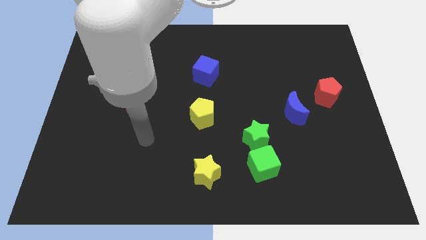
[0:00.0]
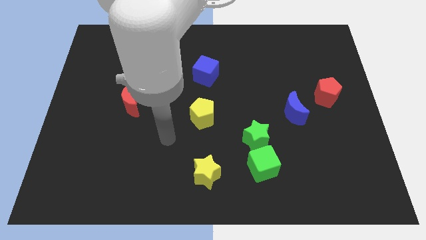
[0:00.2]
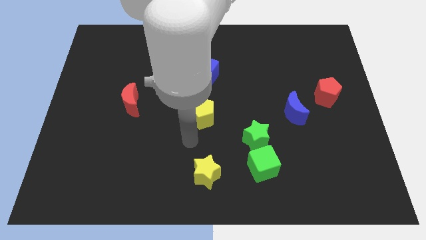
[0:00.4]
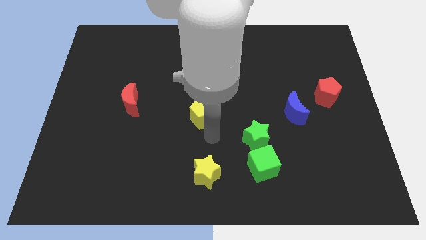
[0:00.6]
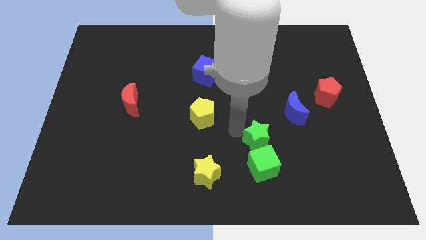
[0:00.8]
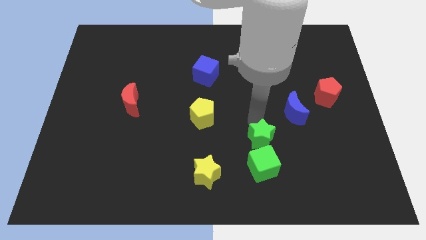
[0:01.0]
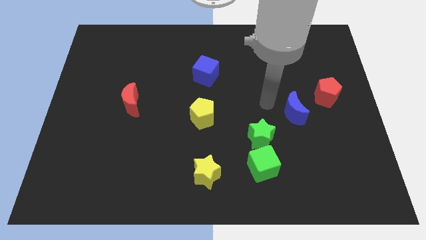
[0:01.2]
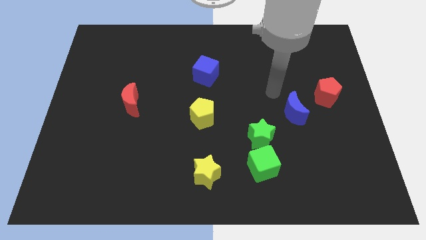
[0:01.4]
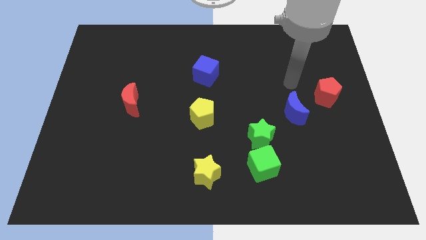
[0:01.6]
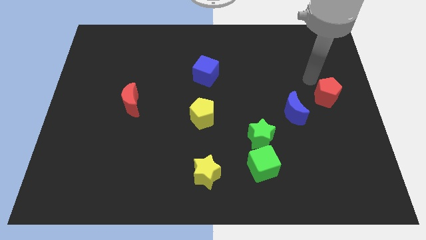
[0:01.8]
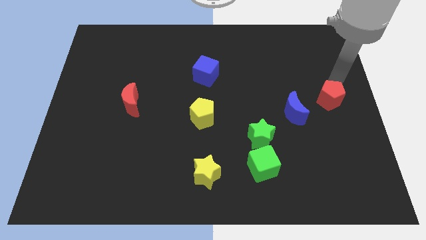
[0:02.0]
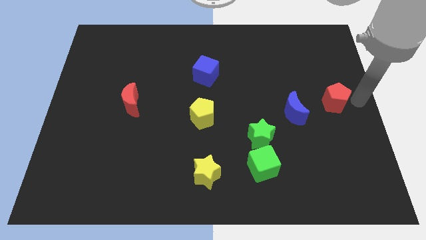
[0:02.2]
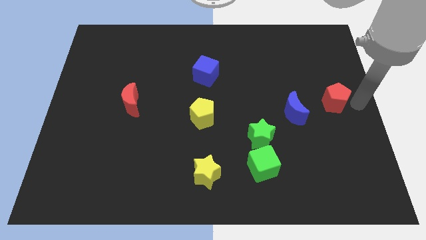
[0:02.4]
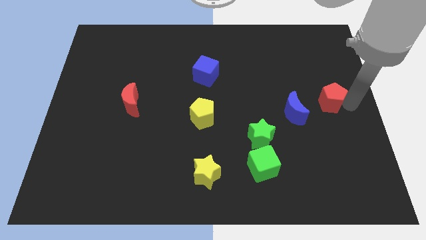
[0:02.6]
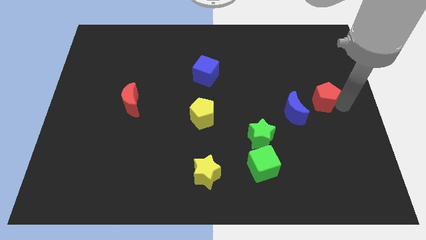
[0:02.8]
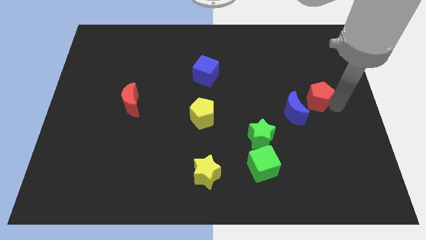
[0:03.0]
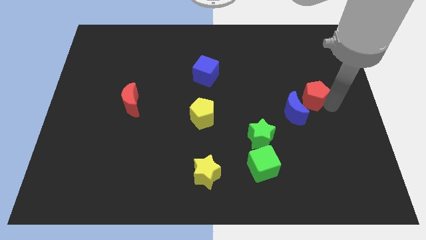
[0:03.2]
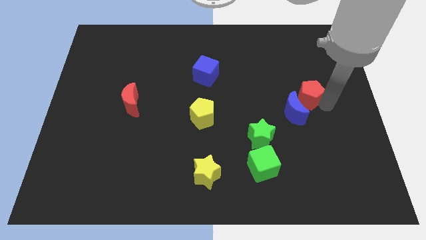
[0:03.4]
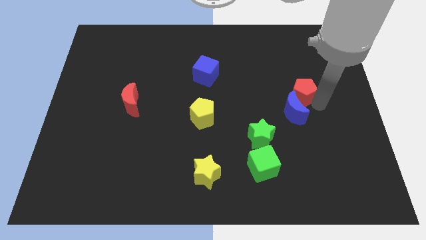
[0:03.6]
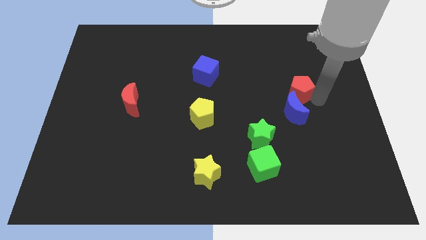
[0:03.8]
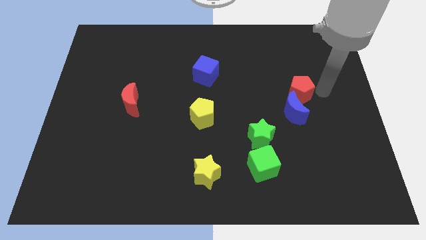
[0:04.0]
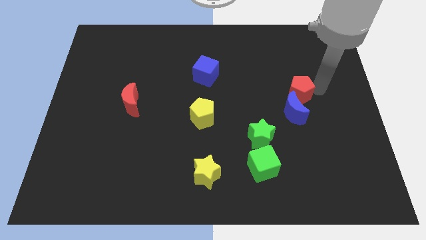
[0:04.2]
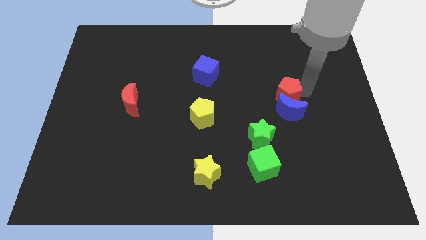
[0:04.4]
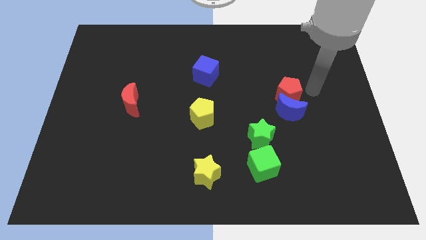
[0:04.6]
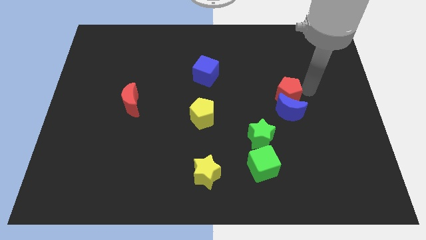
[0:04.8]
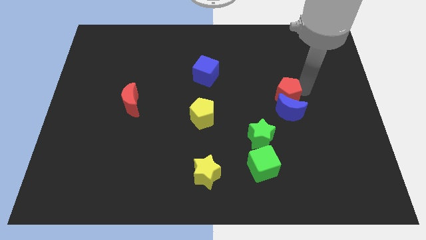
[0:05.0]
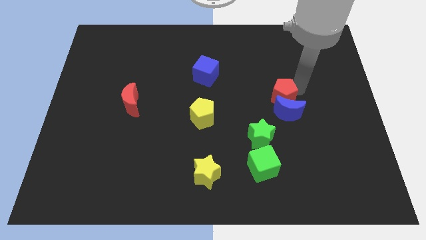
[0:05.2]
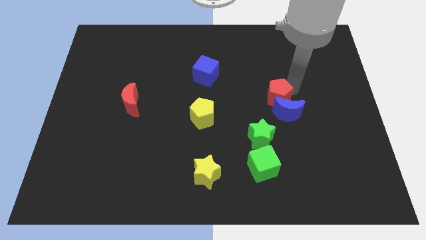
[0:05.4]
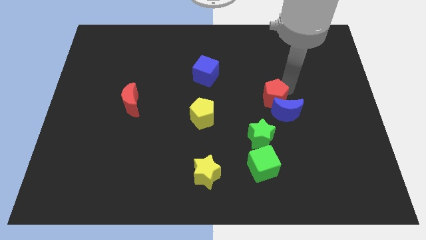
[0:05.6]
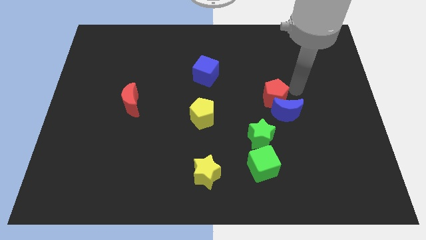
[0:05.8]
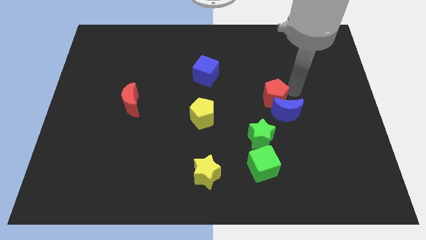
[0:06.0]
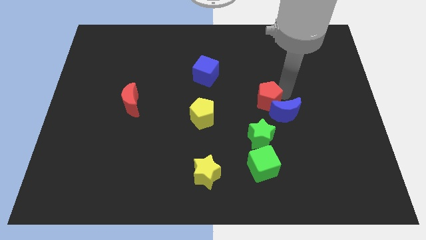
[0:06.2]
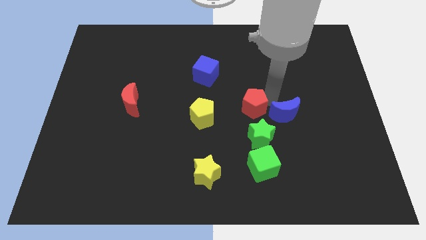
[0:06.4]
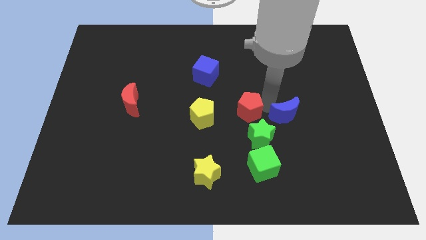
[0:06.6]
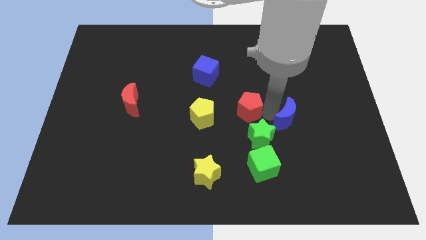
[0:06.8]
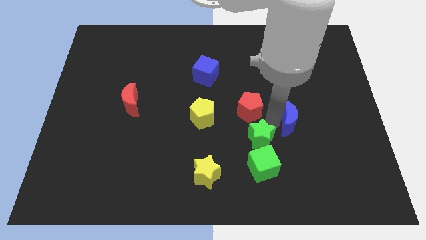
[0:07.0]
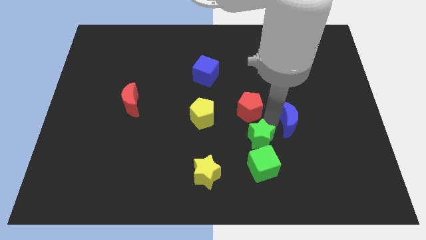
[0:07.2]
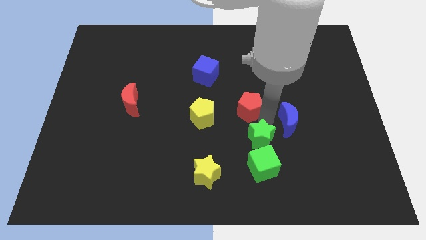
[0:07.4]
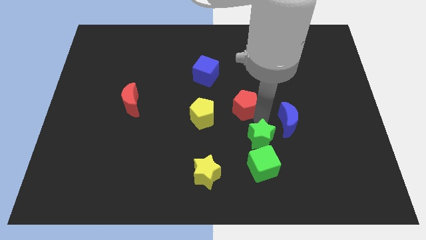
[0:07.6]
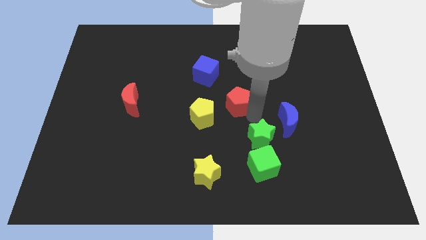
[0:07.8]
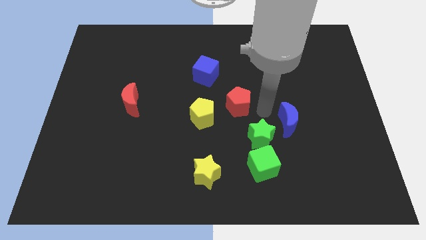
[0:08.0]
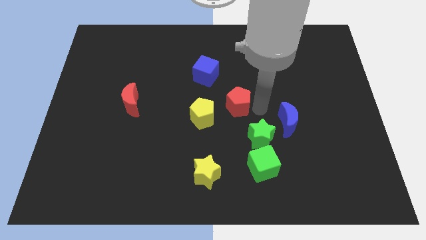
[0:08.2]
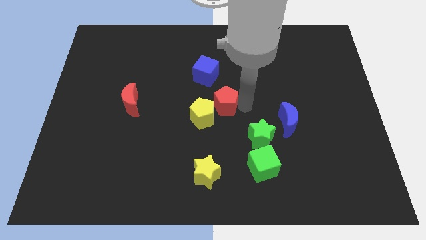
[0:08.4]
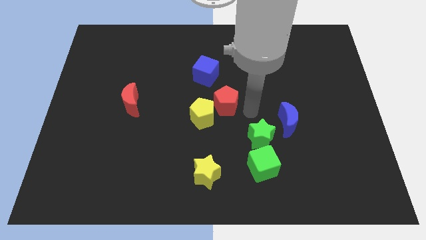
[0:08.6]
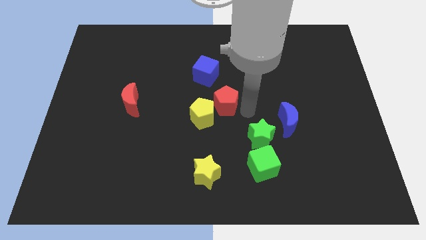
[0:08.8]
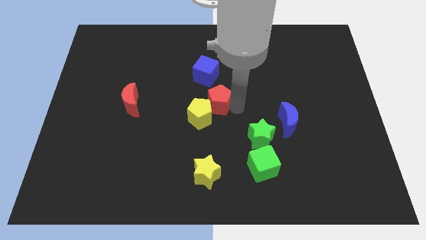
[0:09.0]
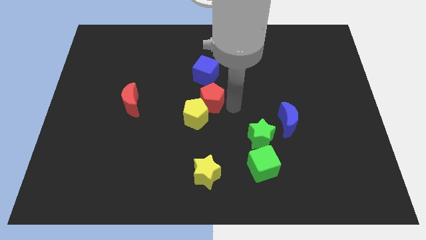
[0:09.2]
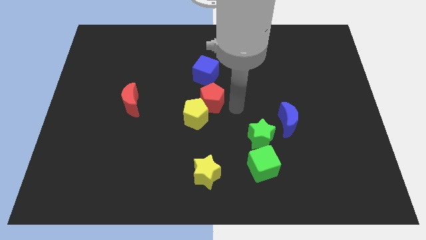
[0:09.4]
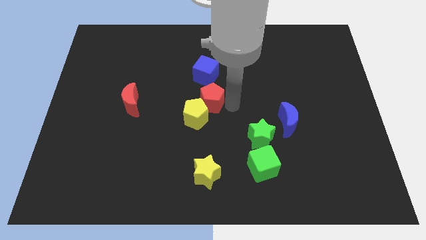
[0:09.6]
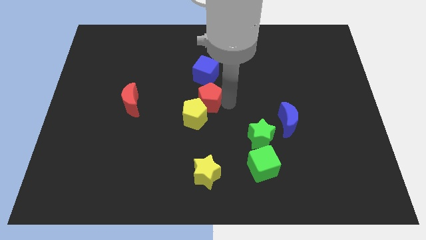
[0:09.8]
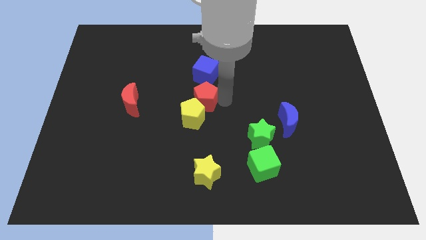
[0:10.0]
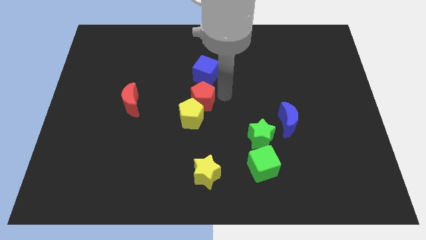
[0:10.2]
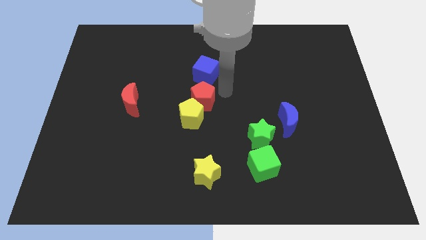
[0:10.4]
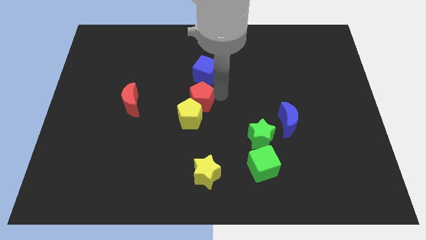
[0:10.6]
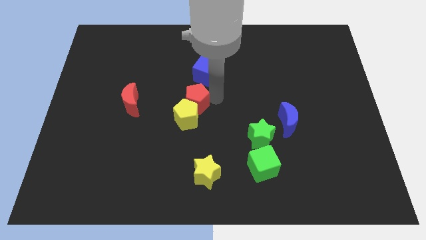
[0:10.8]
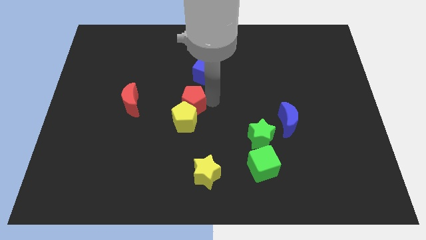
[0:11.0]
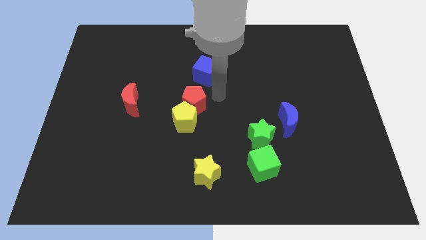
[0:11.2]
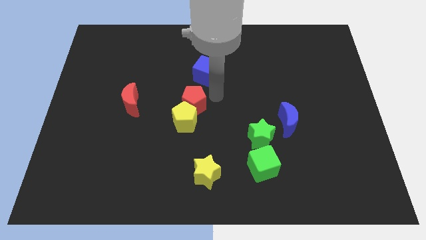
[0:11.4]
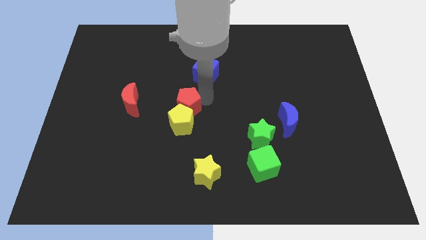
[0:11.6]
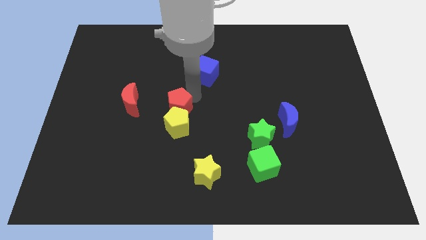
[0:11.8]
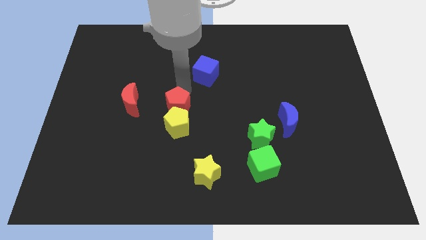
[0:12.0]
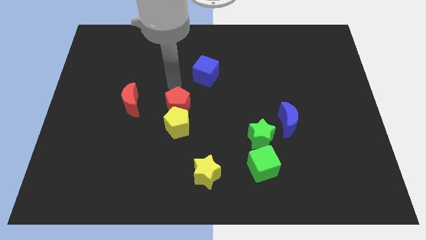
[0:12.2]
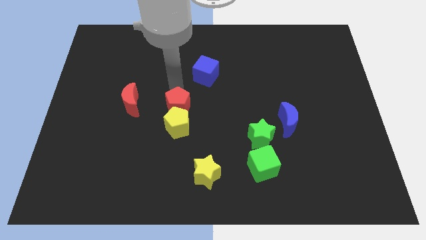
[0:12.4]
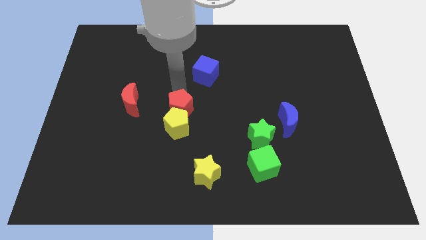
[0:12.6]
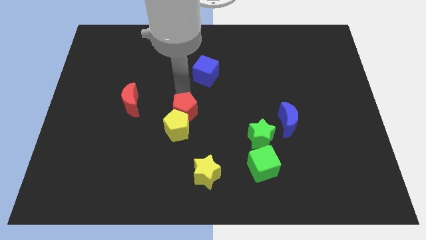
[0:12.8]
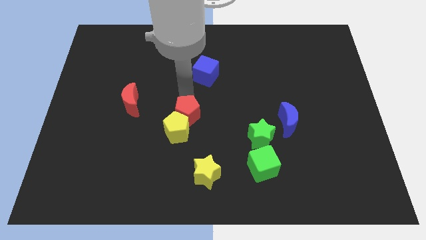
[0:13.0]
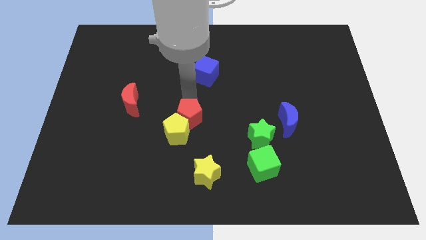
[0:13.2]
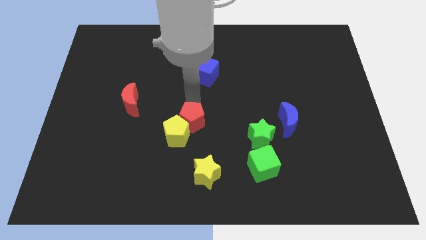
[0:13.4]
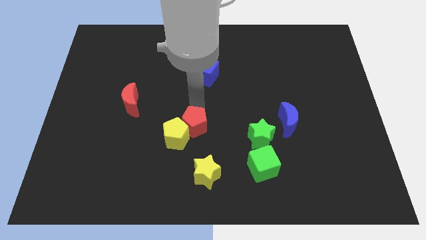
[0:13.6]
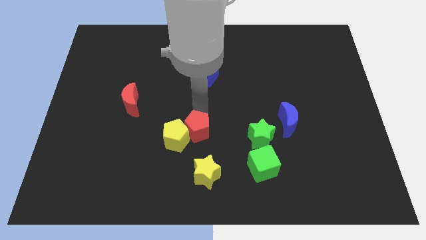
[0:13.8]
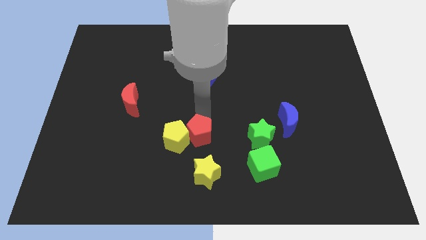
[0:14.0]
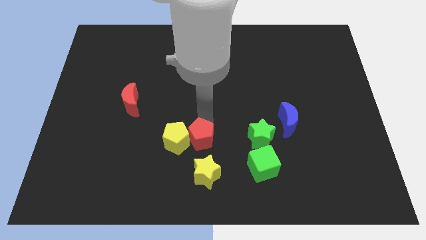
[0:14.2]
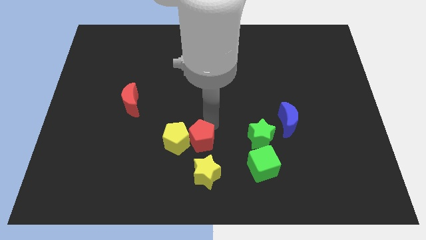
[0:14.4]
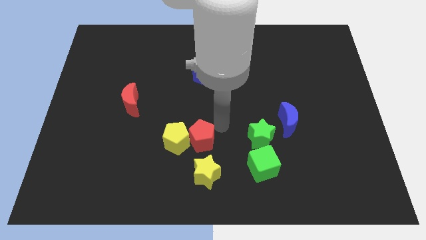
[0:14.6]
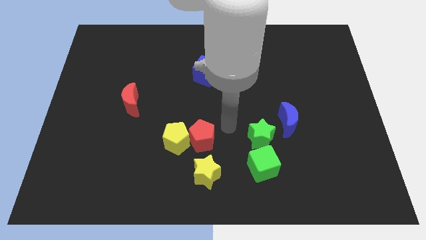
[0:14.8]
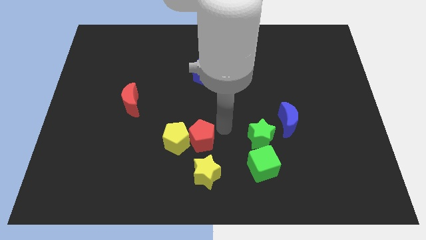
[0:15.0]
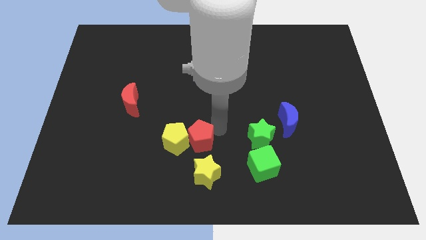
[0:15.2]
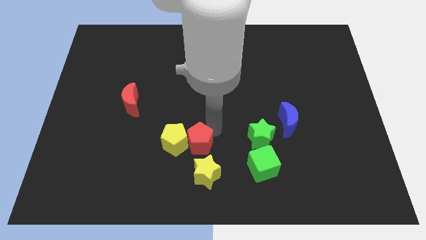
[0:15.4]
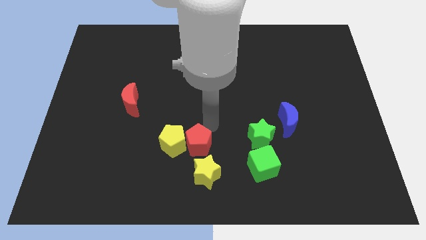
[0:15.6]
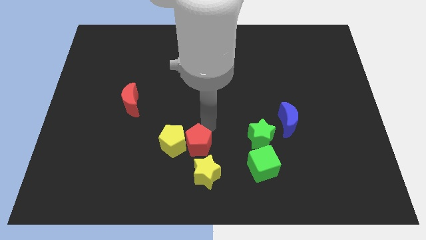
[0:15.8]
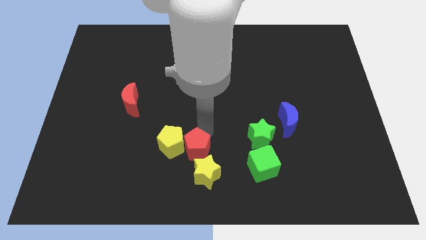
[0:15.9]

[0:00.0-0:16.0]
put the red pentagon left of the green cube
